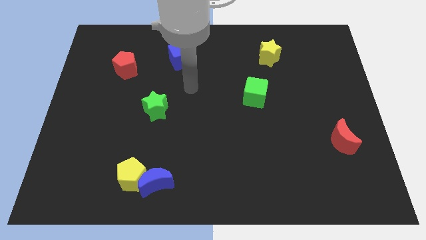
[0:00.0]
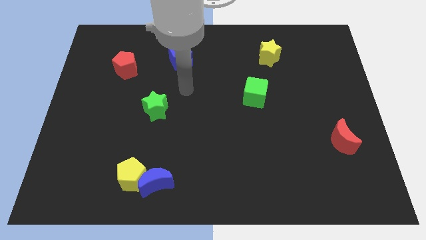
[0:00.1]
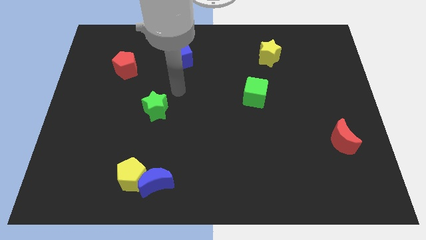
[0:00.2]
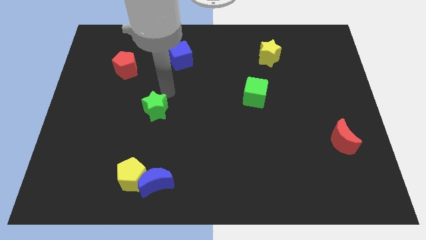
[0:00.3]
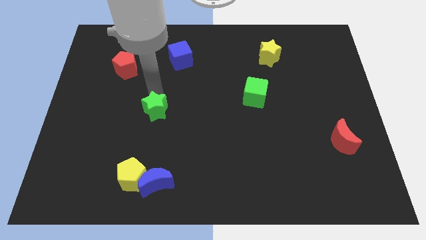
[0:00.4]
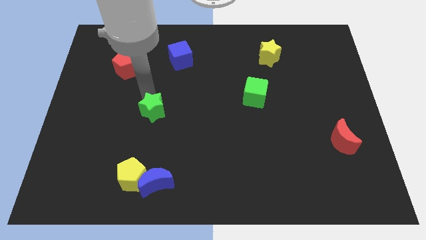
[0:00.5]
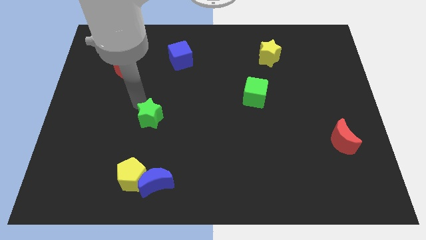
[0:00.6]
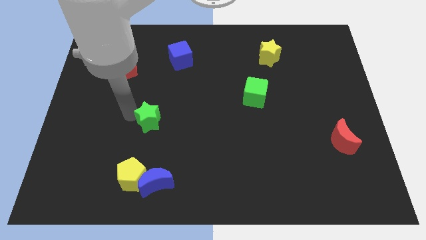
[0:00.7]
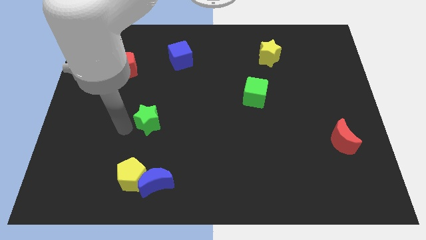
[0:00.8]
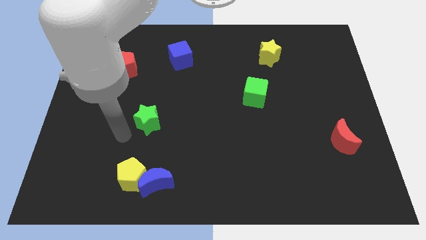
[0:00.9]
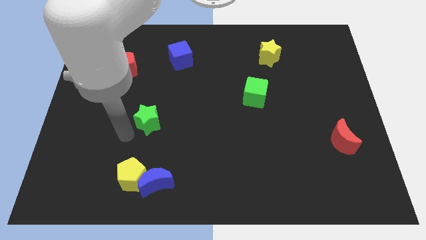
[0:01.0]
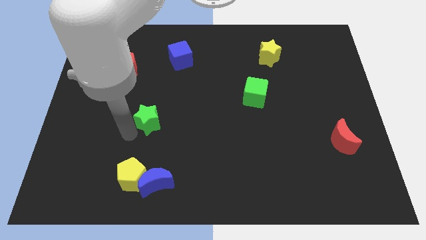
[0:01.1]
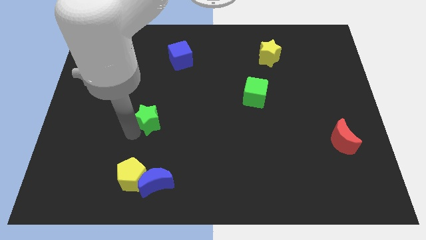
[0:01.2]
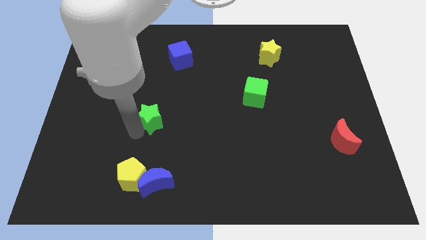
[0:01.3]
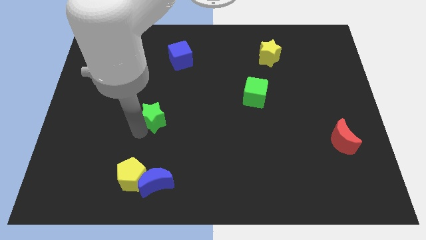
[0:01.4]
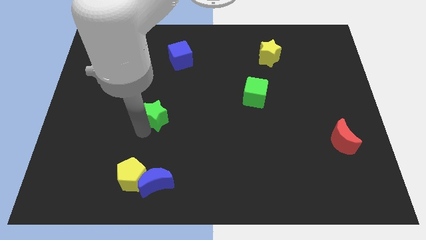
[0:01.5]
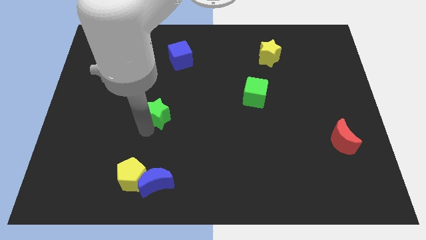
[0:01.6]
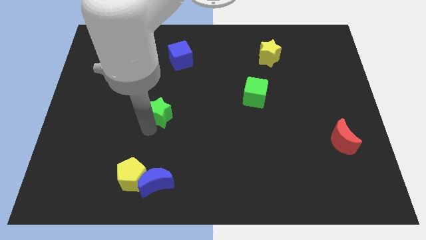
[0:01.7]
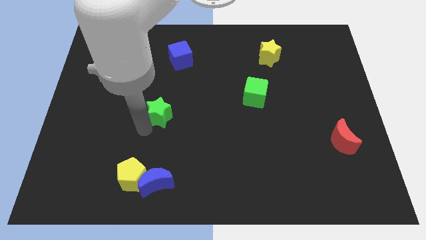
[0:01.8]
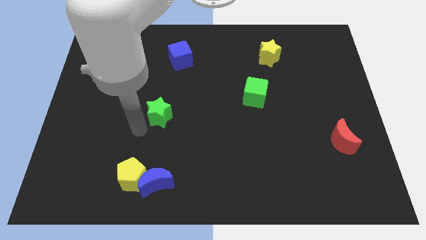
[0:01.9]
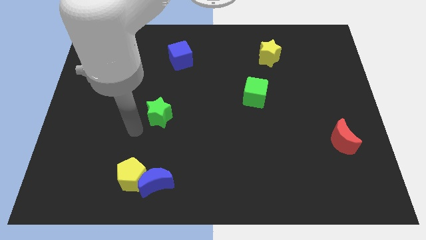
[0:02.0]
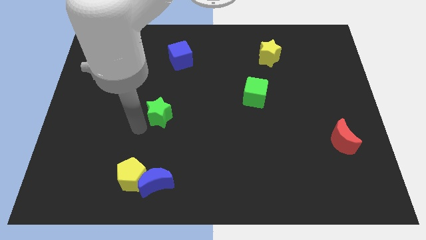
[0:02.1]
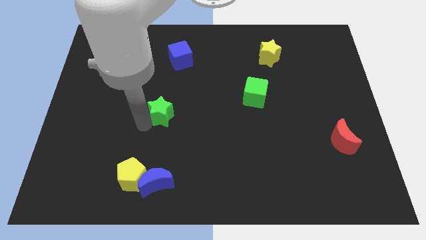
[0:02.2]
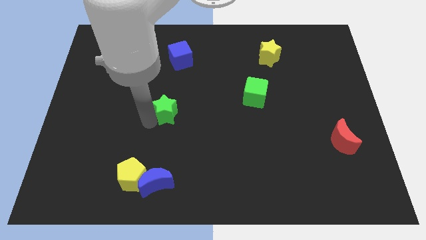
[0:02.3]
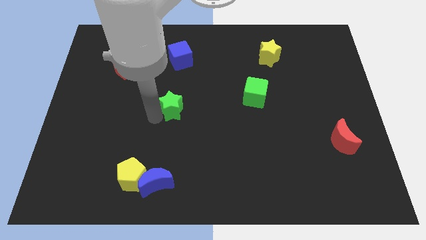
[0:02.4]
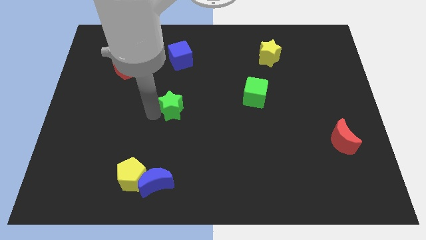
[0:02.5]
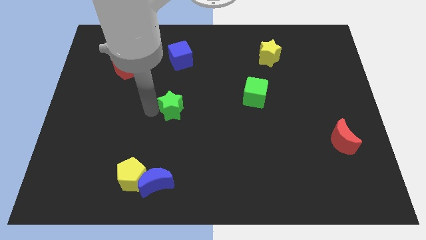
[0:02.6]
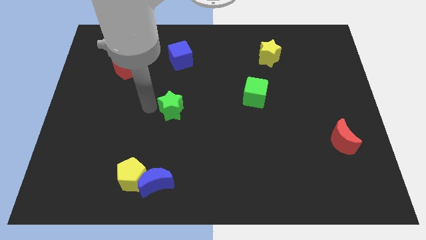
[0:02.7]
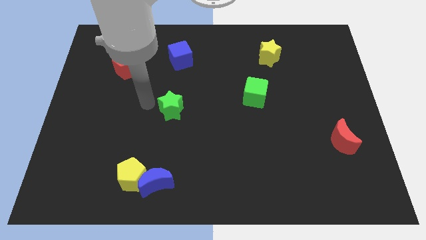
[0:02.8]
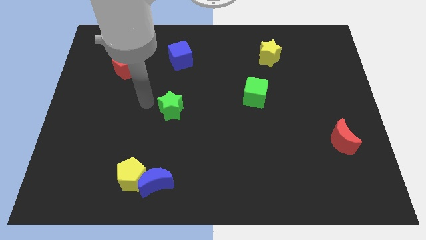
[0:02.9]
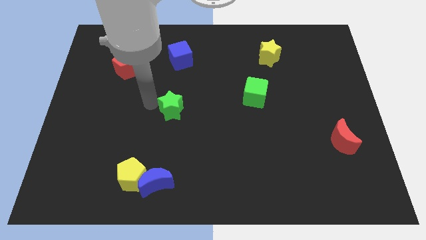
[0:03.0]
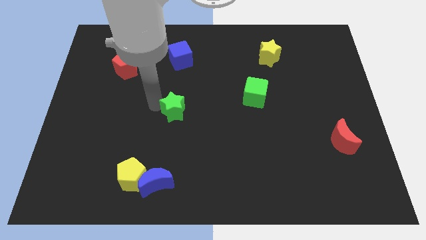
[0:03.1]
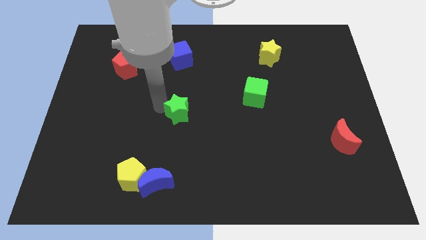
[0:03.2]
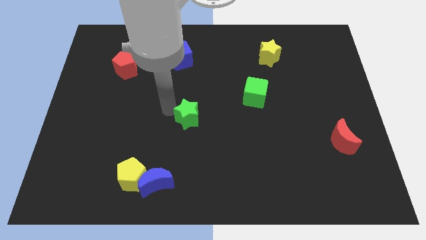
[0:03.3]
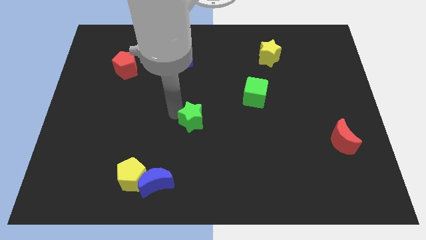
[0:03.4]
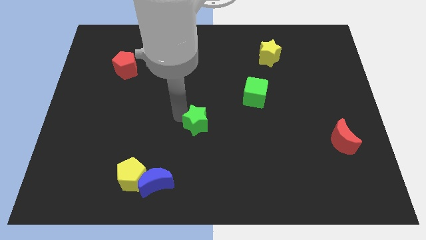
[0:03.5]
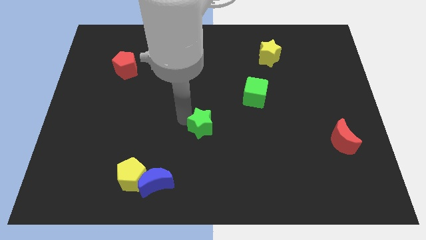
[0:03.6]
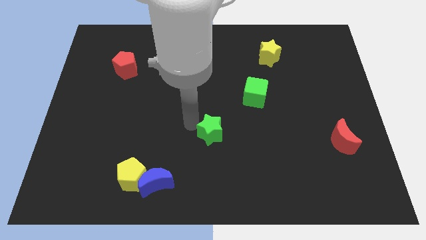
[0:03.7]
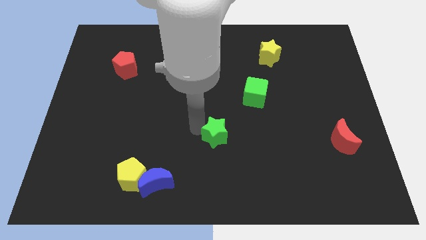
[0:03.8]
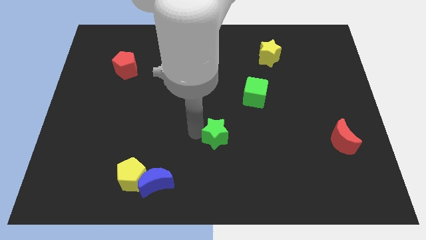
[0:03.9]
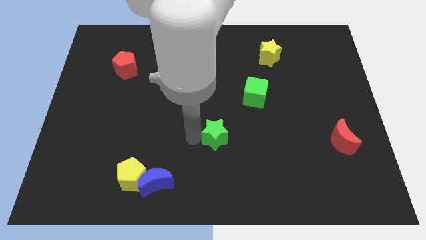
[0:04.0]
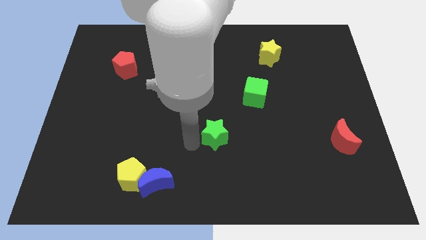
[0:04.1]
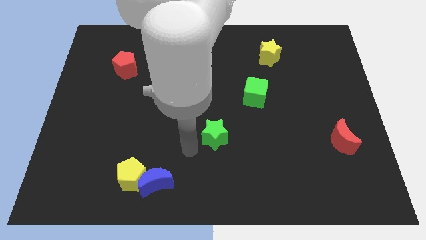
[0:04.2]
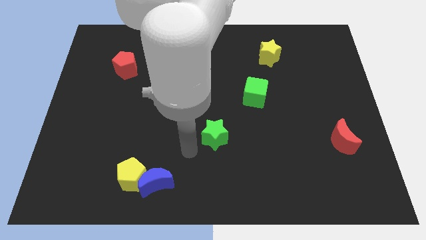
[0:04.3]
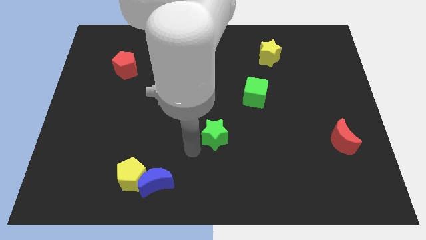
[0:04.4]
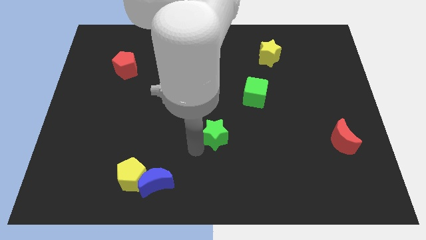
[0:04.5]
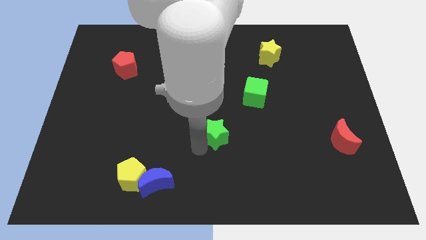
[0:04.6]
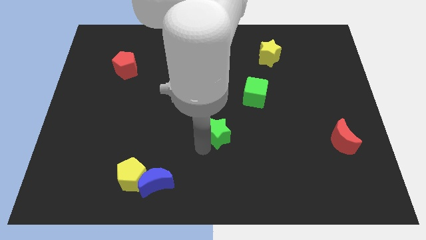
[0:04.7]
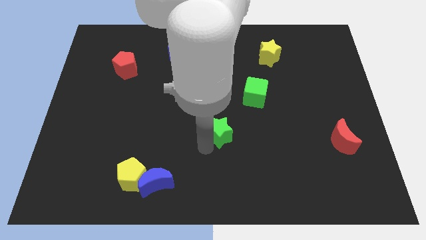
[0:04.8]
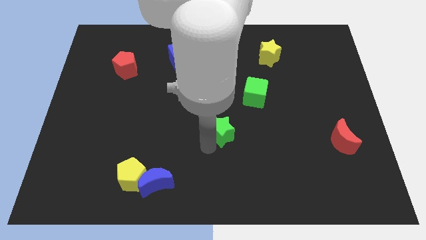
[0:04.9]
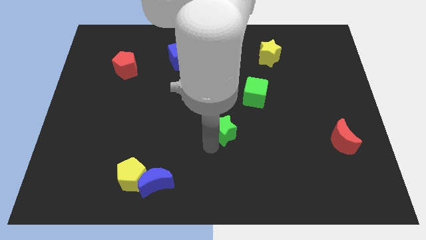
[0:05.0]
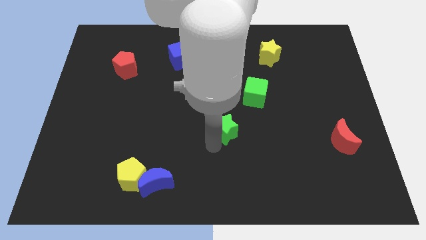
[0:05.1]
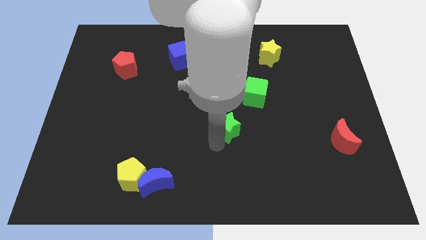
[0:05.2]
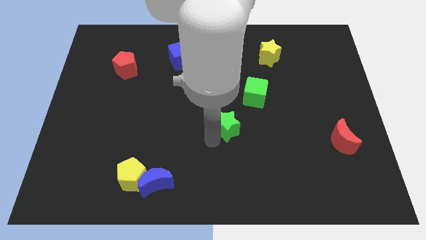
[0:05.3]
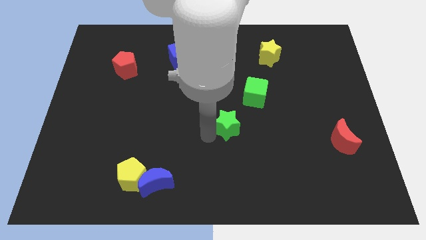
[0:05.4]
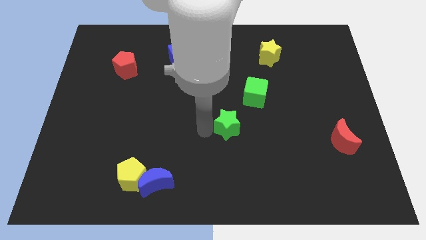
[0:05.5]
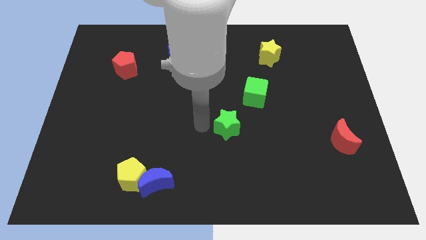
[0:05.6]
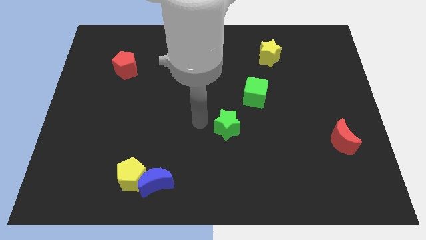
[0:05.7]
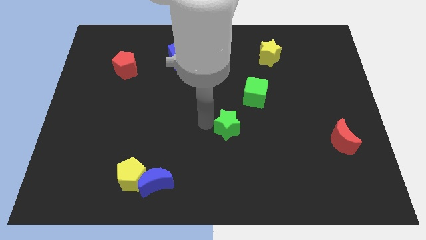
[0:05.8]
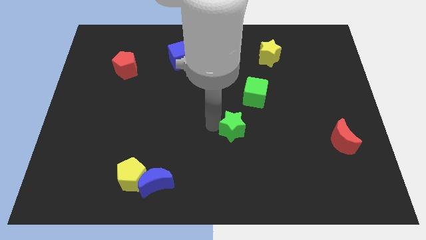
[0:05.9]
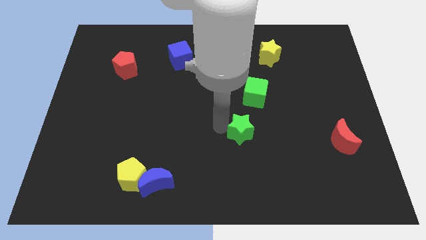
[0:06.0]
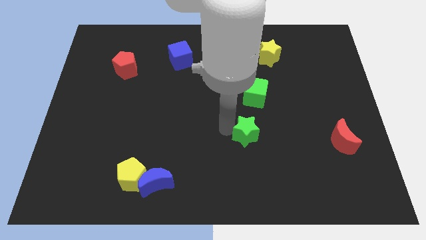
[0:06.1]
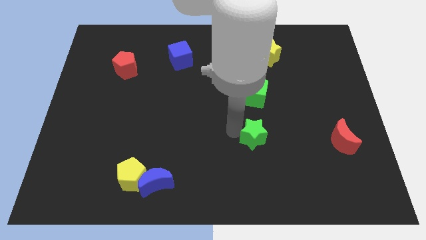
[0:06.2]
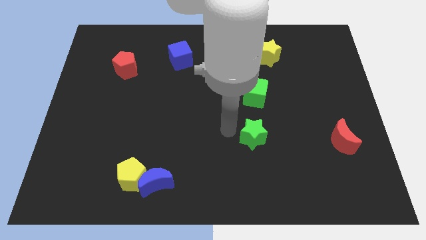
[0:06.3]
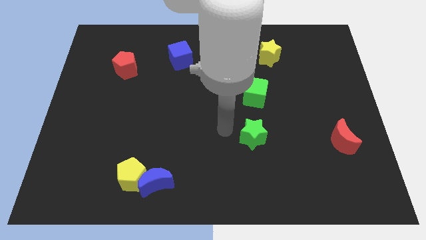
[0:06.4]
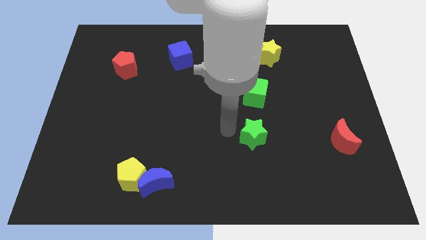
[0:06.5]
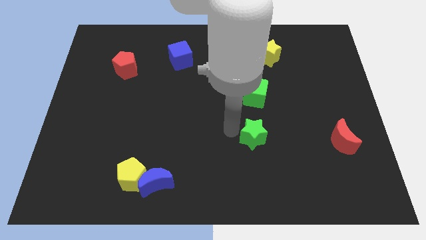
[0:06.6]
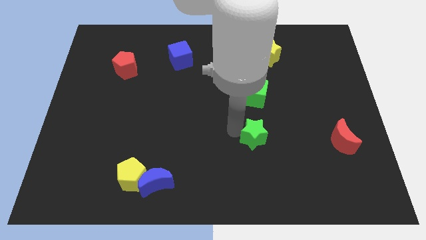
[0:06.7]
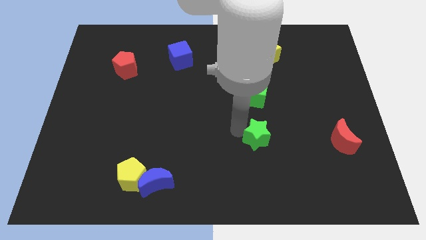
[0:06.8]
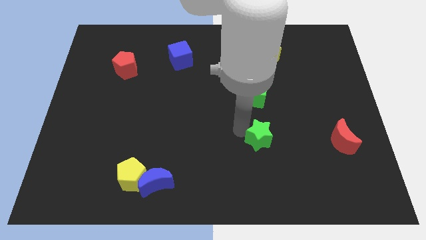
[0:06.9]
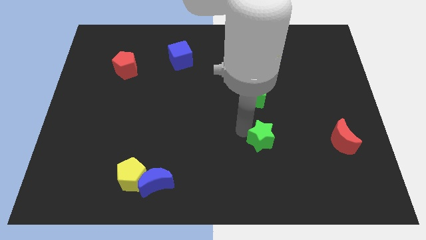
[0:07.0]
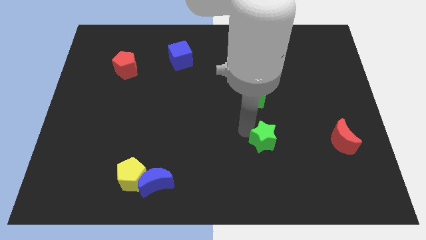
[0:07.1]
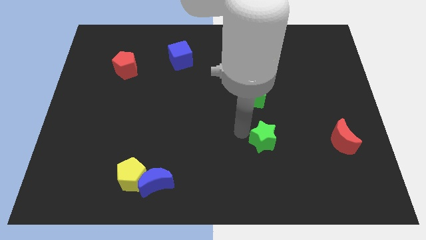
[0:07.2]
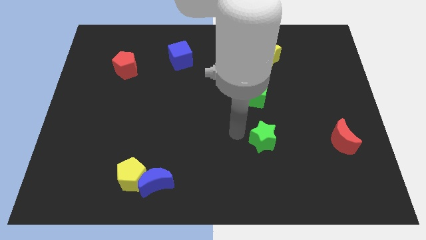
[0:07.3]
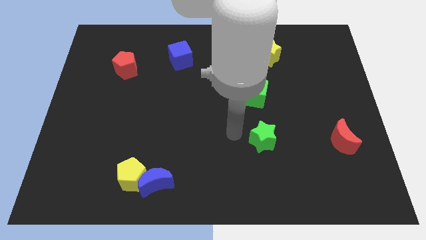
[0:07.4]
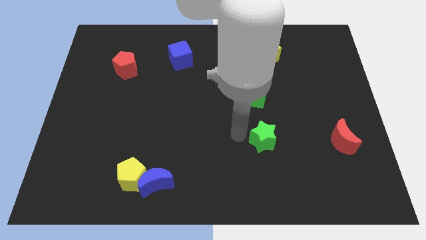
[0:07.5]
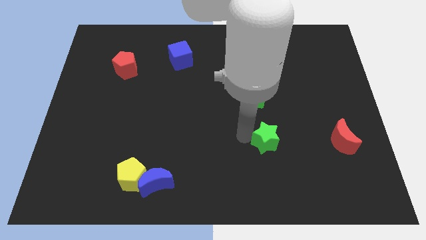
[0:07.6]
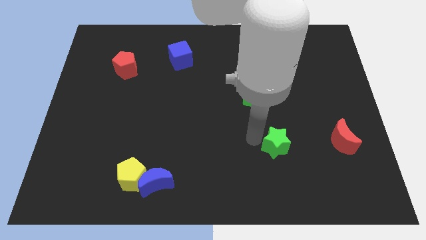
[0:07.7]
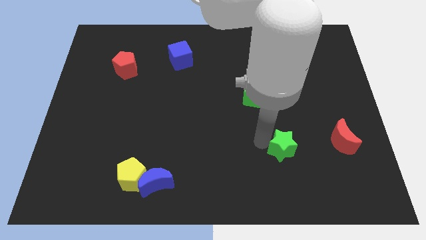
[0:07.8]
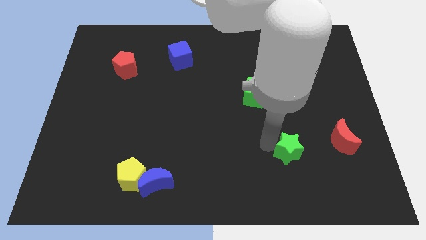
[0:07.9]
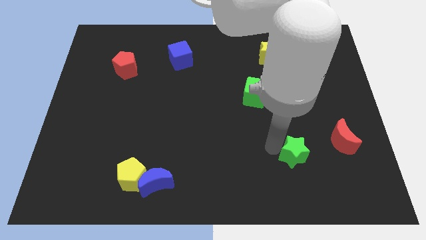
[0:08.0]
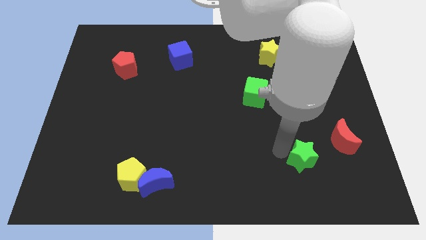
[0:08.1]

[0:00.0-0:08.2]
put the green star diagonally down and to the left of the red moon
